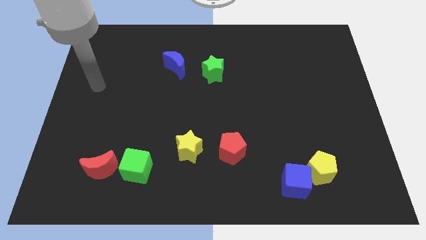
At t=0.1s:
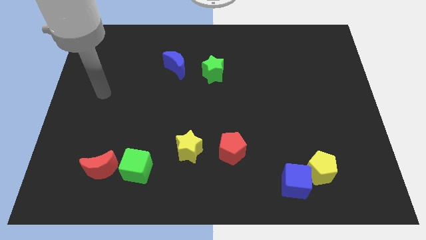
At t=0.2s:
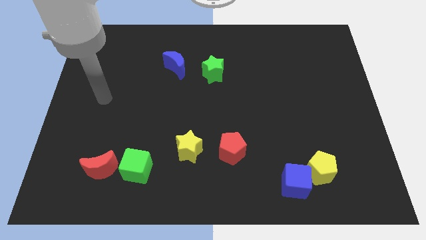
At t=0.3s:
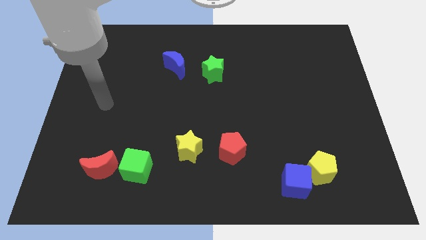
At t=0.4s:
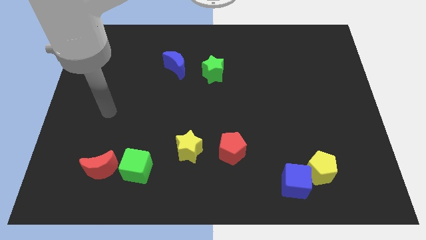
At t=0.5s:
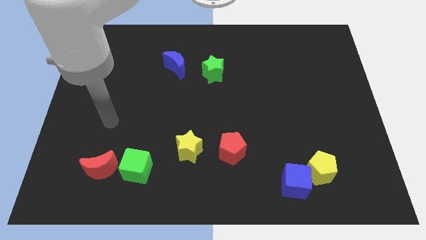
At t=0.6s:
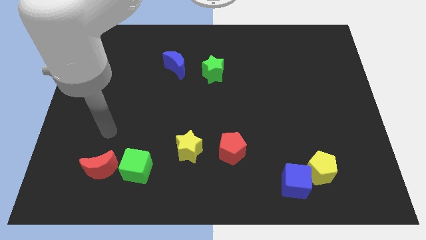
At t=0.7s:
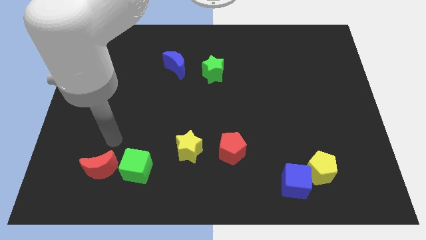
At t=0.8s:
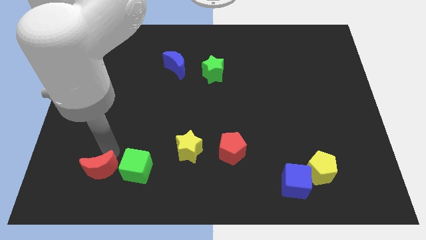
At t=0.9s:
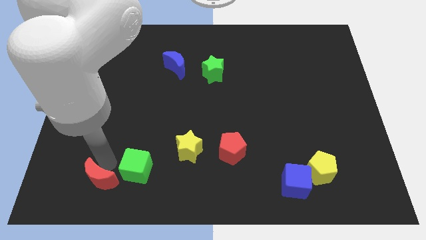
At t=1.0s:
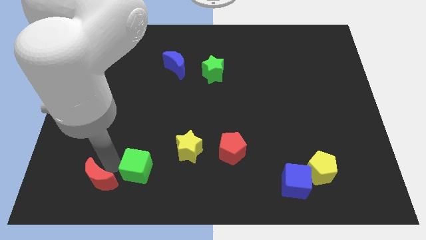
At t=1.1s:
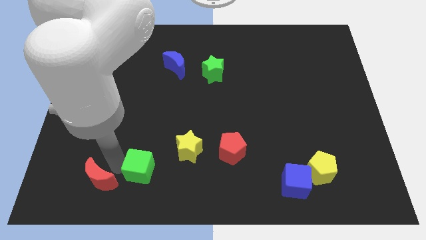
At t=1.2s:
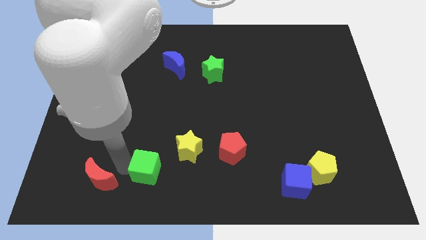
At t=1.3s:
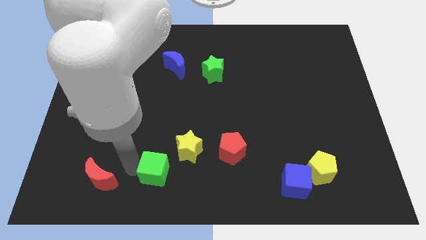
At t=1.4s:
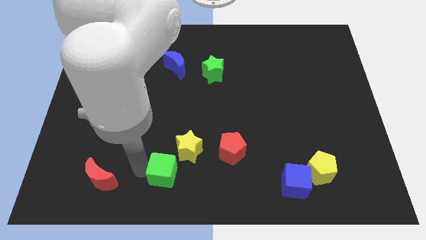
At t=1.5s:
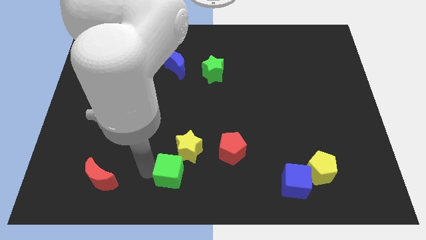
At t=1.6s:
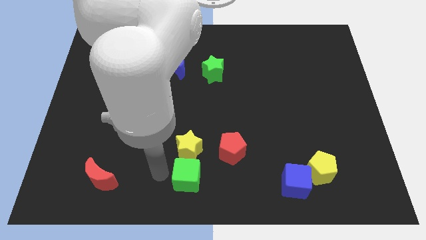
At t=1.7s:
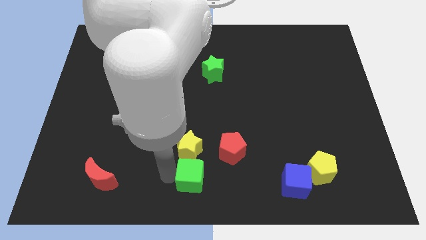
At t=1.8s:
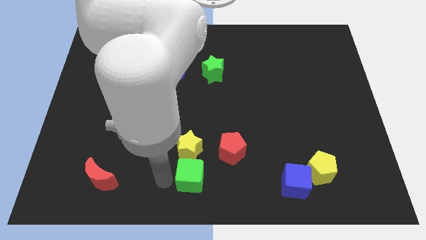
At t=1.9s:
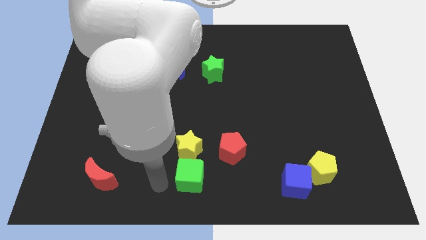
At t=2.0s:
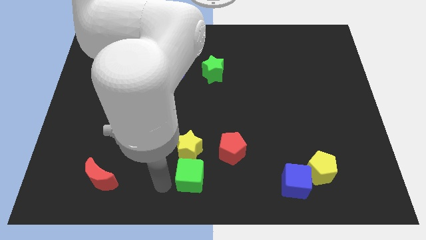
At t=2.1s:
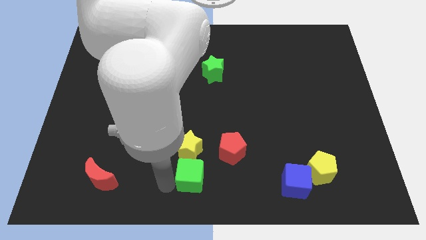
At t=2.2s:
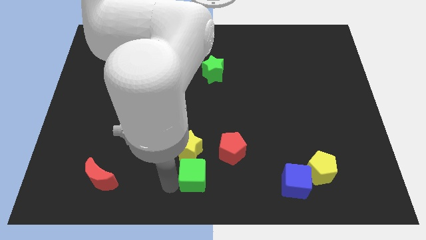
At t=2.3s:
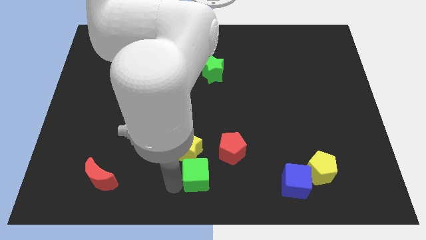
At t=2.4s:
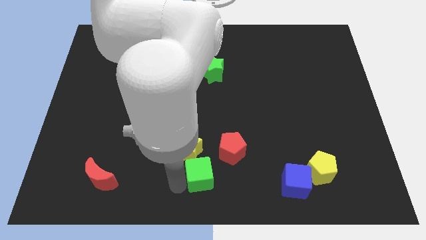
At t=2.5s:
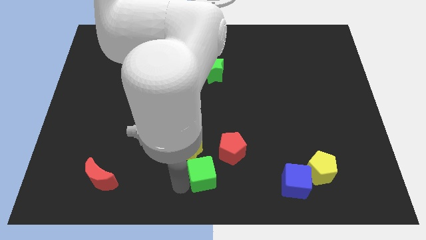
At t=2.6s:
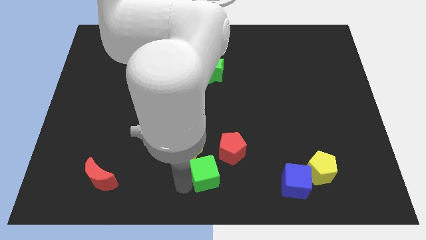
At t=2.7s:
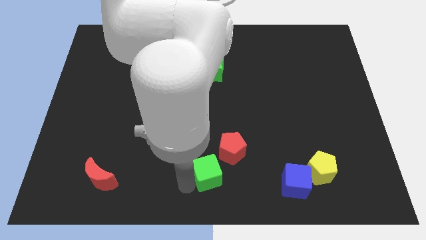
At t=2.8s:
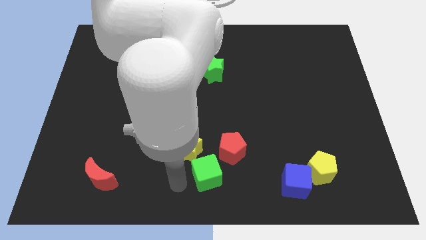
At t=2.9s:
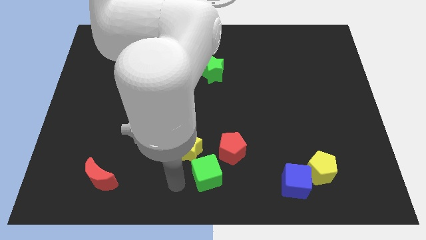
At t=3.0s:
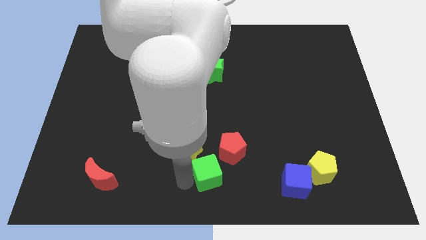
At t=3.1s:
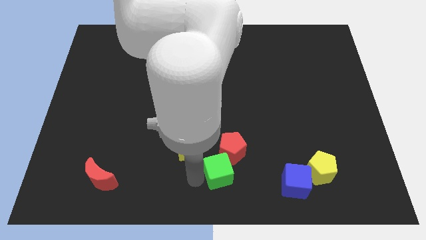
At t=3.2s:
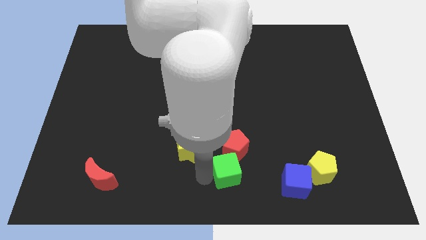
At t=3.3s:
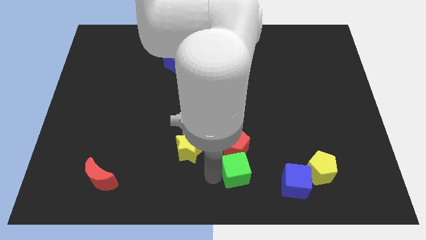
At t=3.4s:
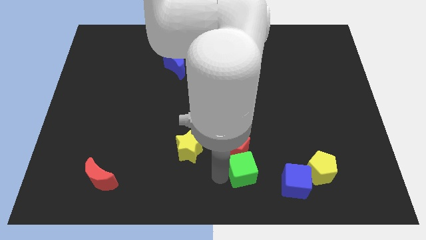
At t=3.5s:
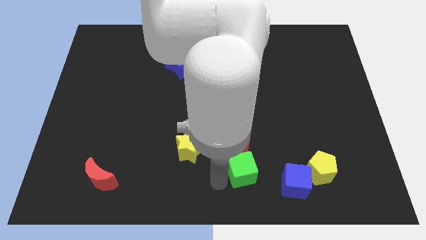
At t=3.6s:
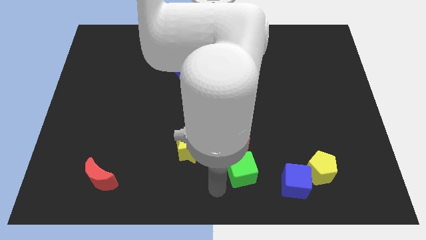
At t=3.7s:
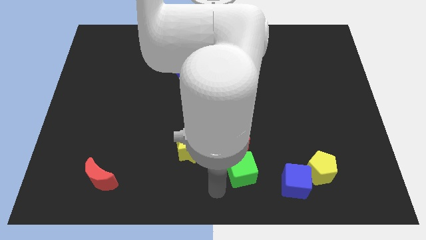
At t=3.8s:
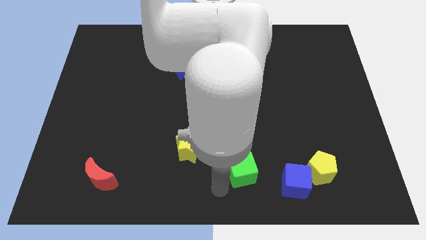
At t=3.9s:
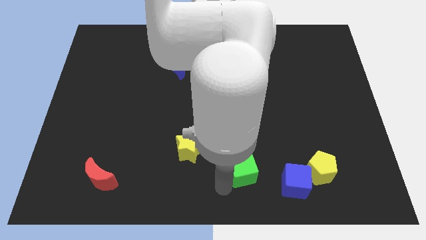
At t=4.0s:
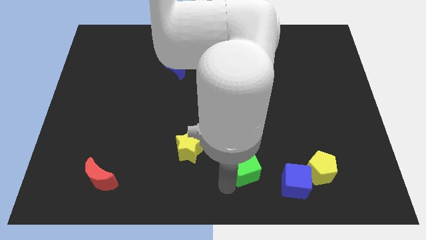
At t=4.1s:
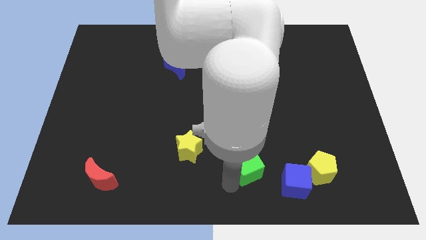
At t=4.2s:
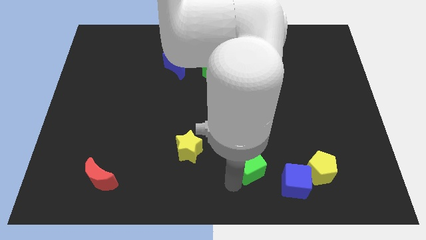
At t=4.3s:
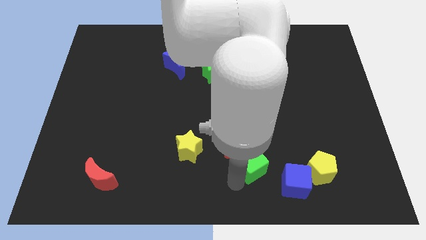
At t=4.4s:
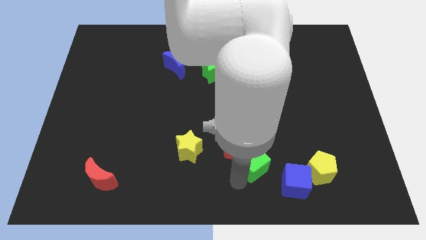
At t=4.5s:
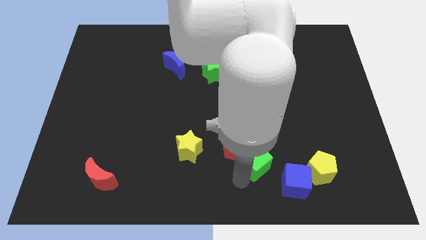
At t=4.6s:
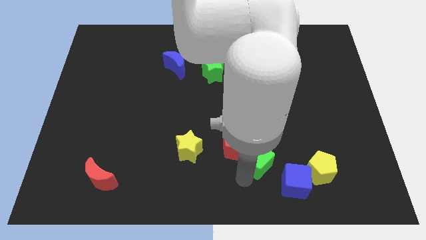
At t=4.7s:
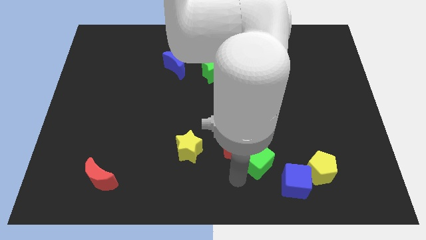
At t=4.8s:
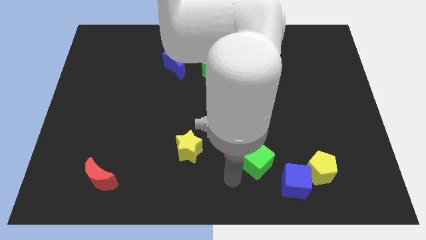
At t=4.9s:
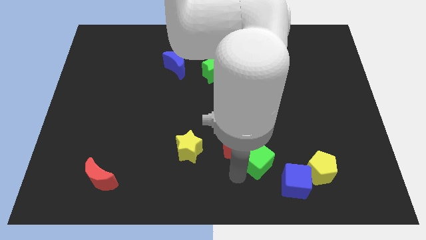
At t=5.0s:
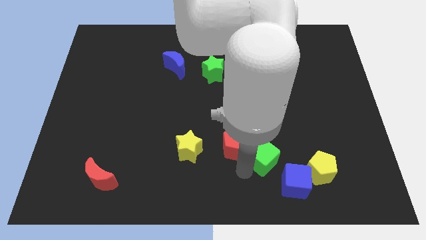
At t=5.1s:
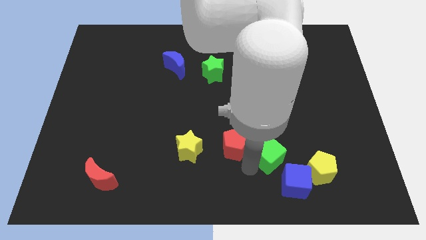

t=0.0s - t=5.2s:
move the green cube above the blue cube

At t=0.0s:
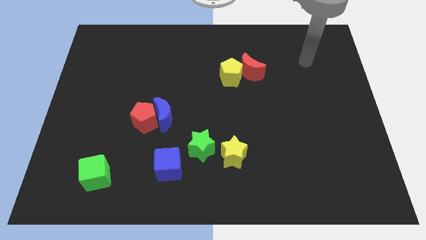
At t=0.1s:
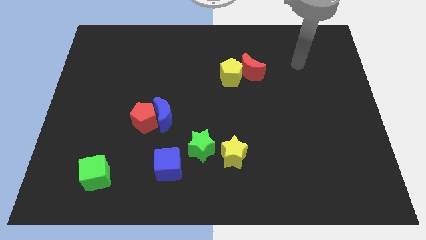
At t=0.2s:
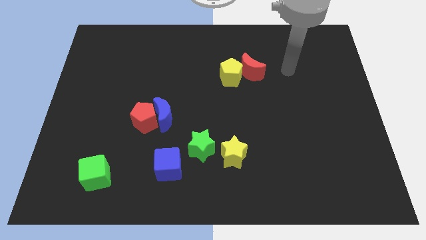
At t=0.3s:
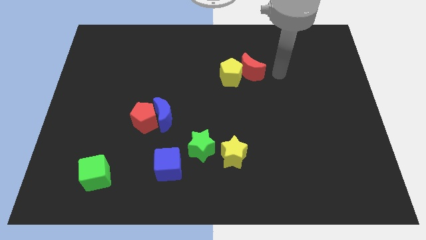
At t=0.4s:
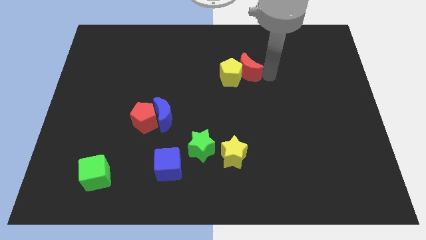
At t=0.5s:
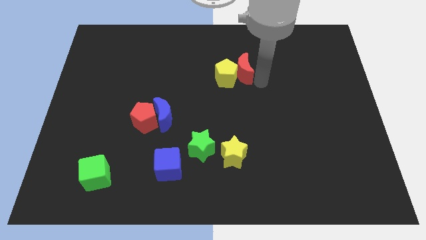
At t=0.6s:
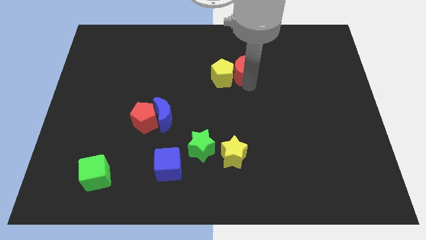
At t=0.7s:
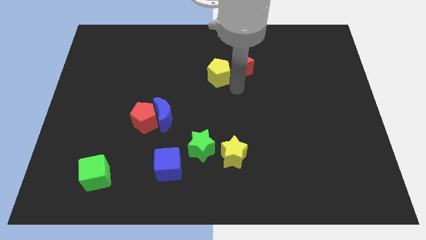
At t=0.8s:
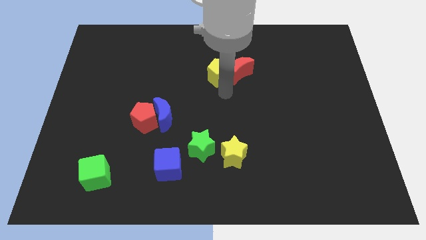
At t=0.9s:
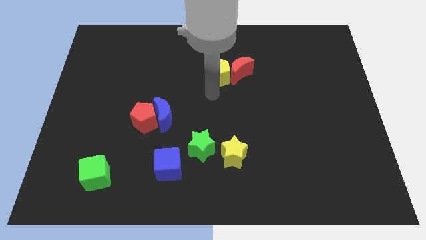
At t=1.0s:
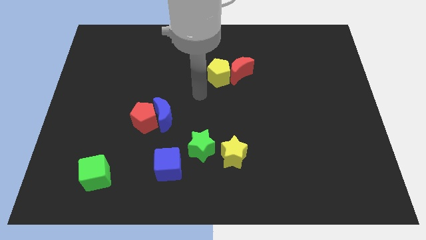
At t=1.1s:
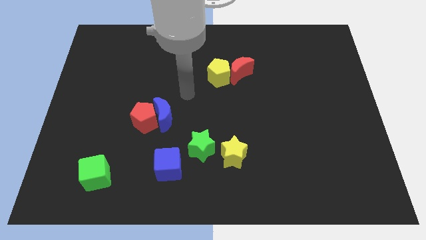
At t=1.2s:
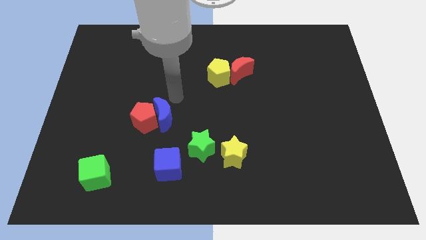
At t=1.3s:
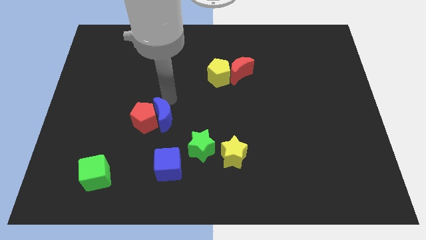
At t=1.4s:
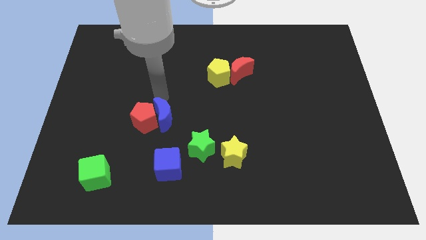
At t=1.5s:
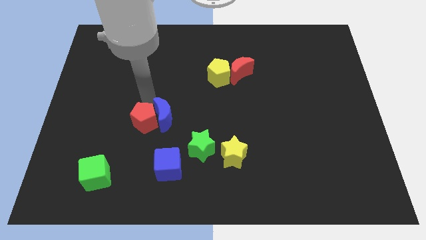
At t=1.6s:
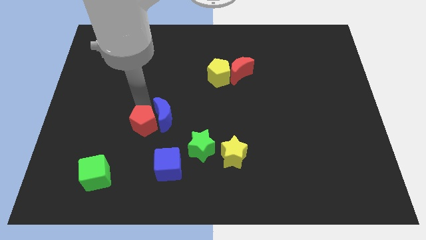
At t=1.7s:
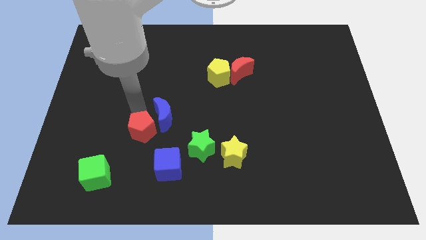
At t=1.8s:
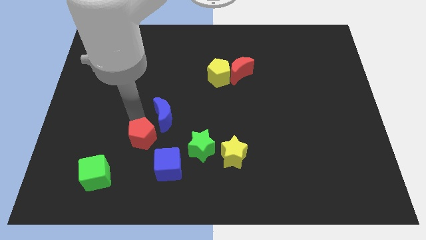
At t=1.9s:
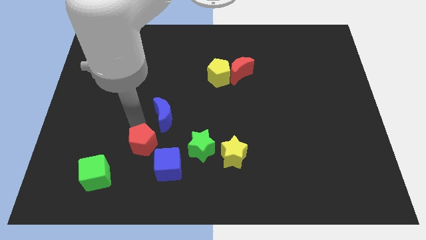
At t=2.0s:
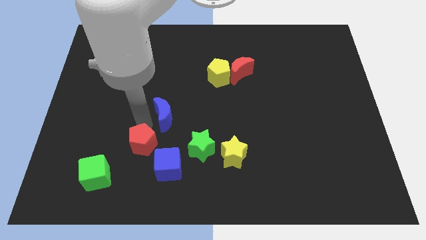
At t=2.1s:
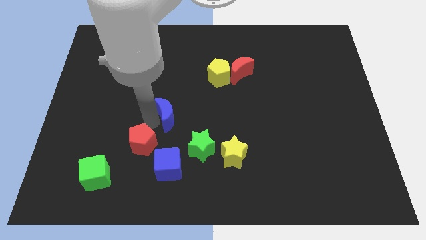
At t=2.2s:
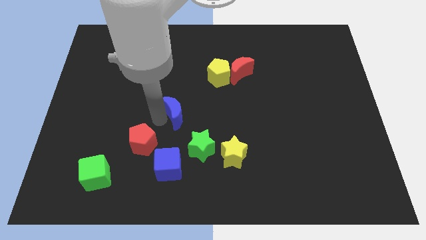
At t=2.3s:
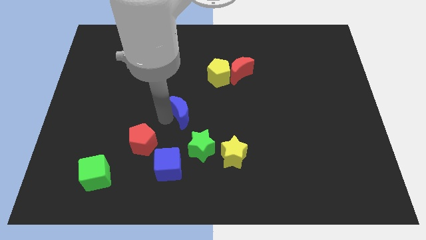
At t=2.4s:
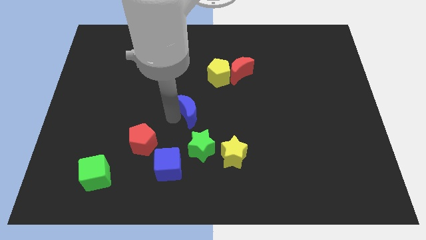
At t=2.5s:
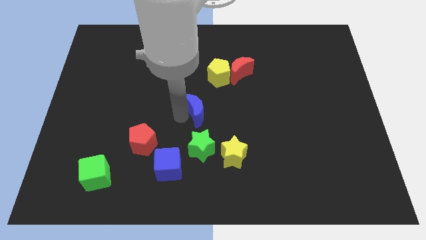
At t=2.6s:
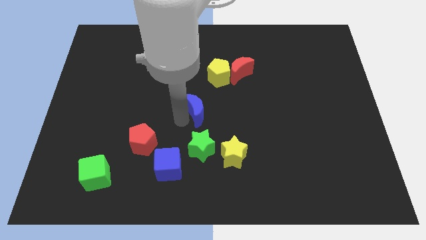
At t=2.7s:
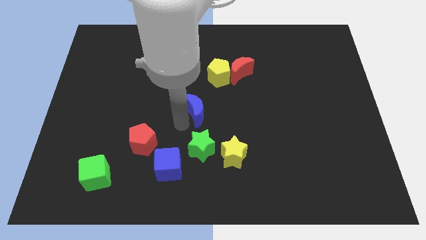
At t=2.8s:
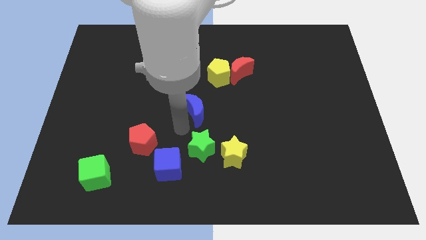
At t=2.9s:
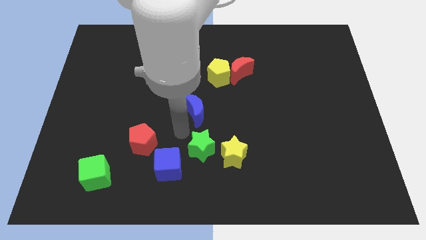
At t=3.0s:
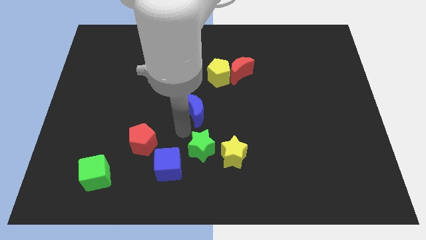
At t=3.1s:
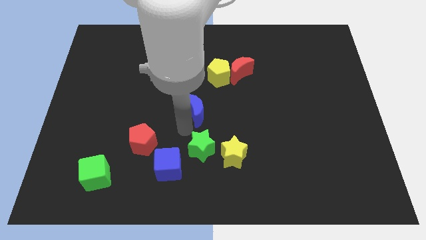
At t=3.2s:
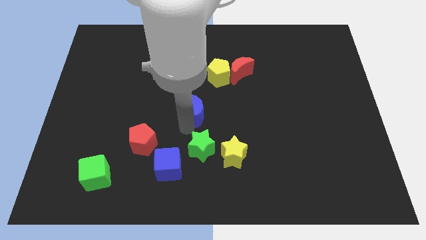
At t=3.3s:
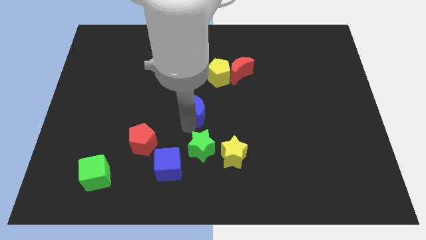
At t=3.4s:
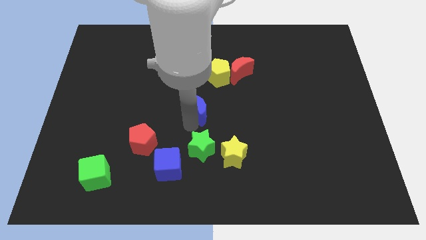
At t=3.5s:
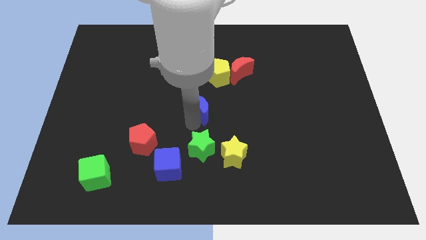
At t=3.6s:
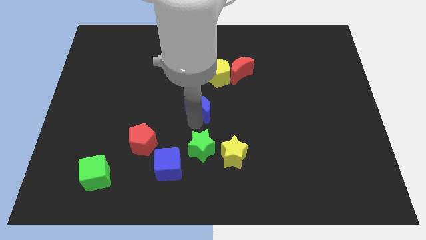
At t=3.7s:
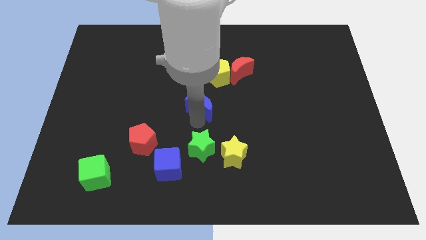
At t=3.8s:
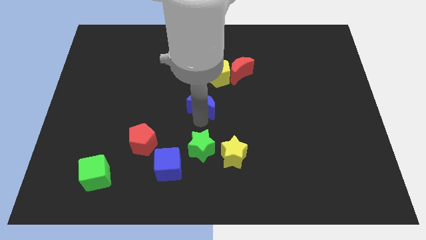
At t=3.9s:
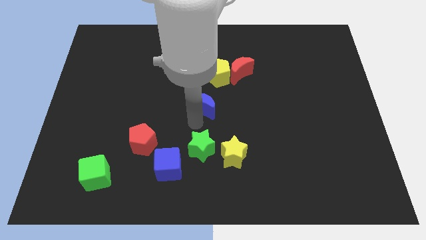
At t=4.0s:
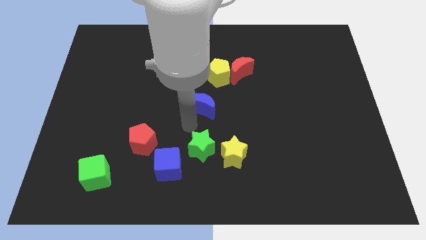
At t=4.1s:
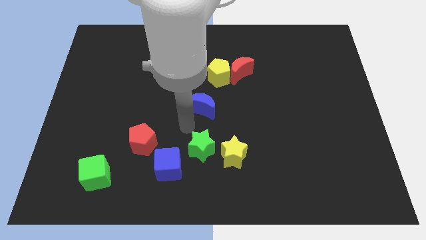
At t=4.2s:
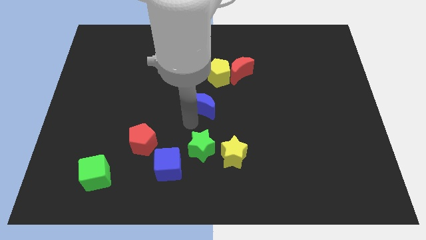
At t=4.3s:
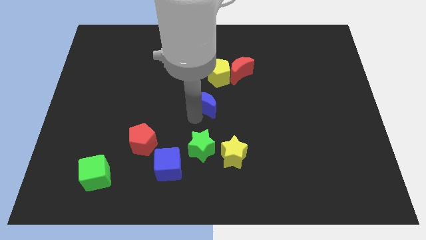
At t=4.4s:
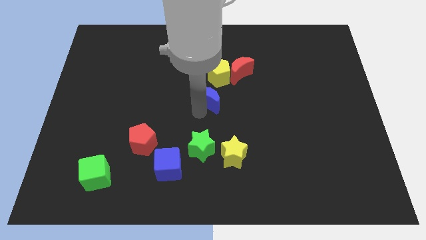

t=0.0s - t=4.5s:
slide the blue moon to the bottom left side of the red moon
